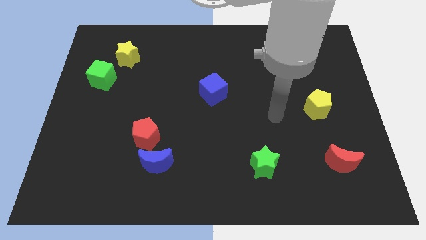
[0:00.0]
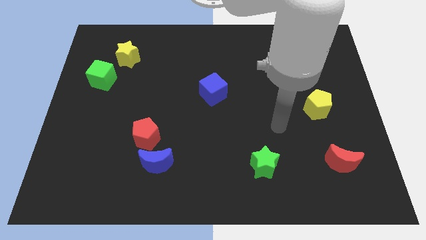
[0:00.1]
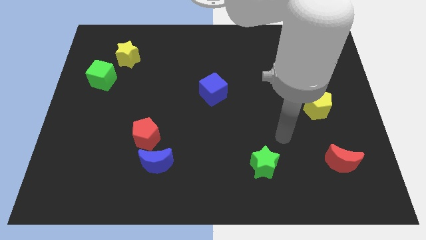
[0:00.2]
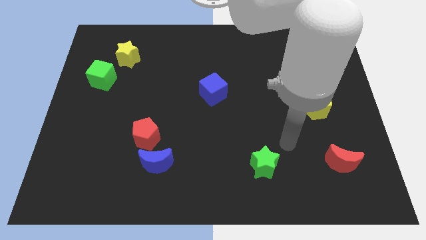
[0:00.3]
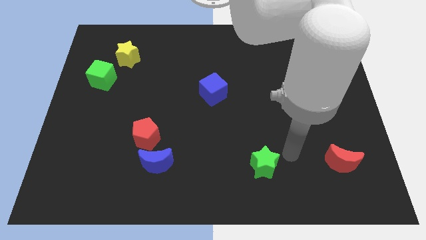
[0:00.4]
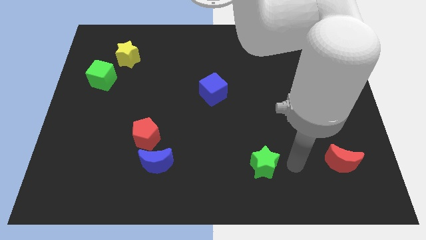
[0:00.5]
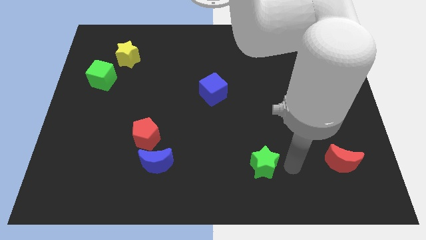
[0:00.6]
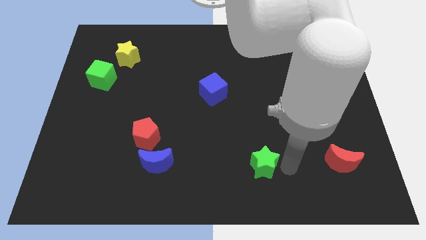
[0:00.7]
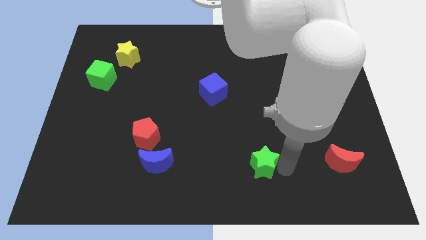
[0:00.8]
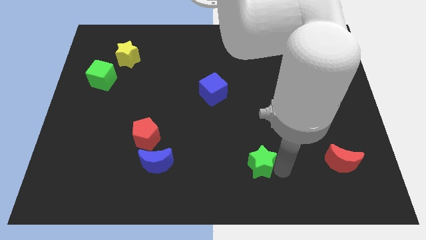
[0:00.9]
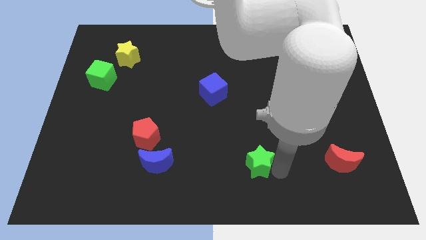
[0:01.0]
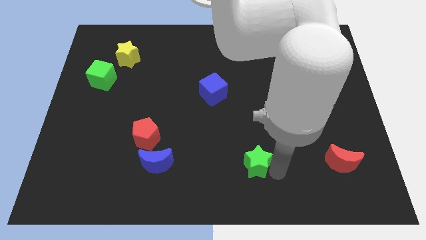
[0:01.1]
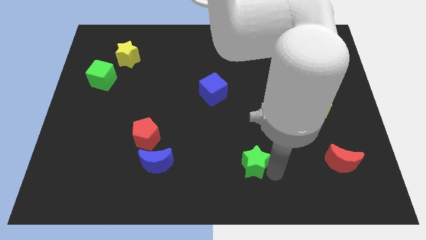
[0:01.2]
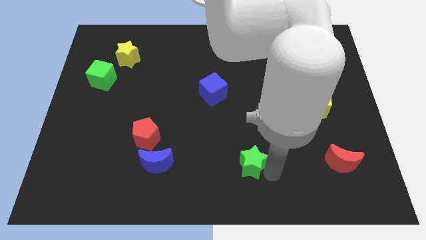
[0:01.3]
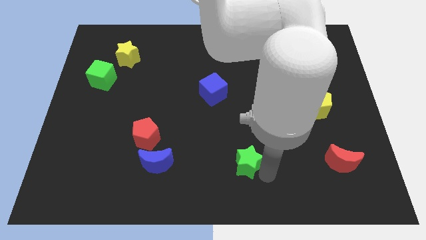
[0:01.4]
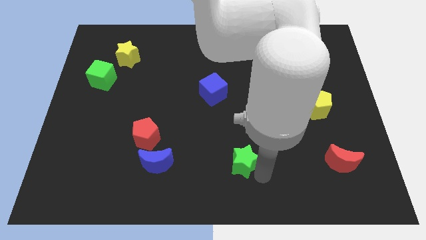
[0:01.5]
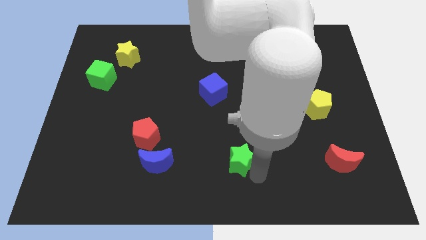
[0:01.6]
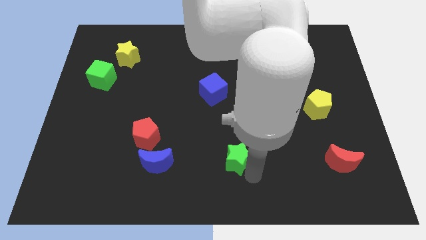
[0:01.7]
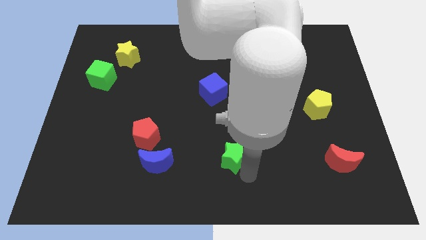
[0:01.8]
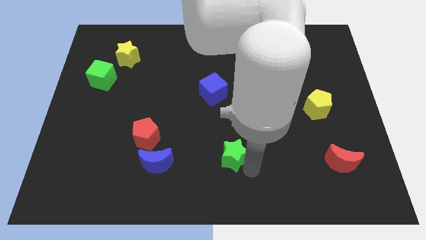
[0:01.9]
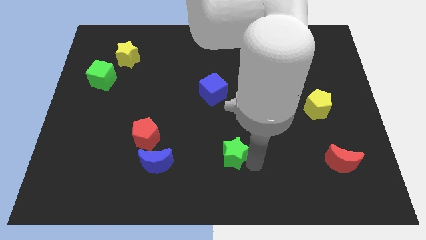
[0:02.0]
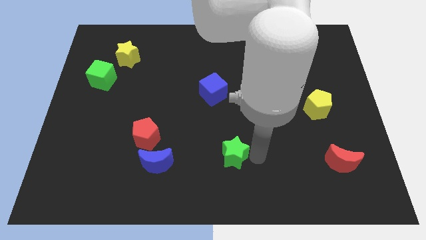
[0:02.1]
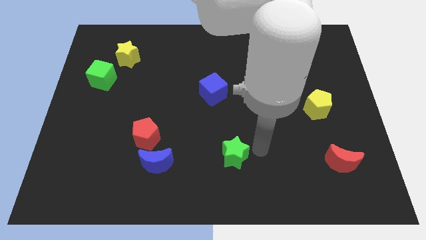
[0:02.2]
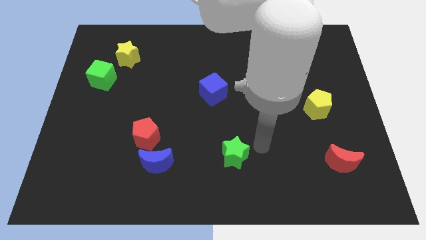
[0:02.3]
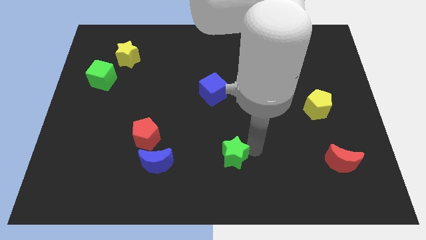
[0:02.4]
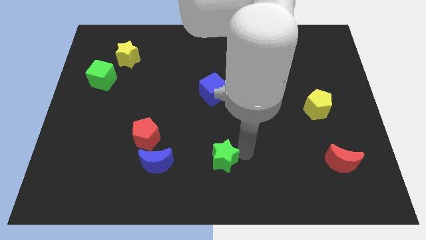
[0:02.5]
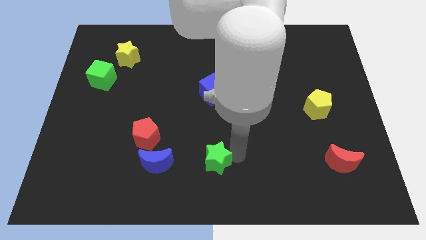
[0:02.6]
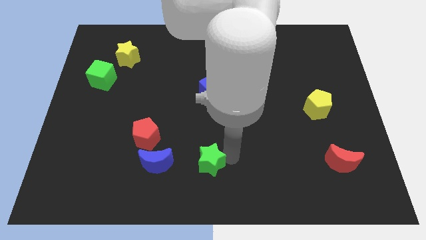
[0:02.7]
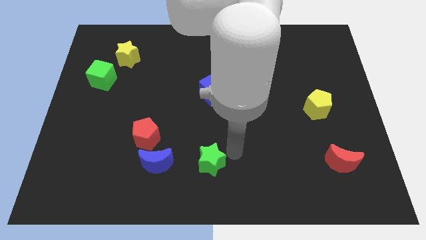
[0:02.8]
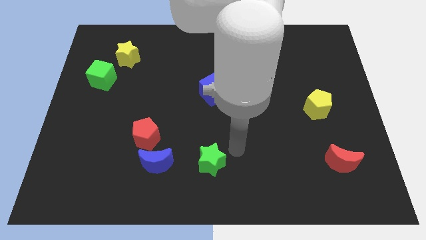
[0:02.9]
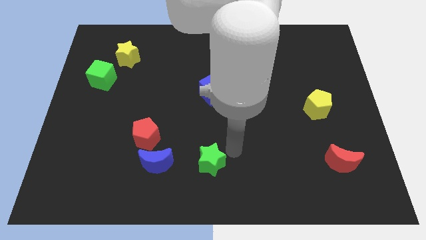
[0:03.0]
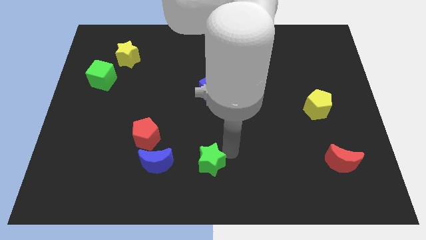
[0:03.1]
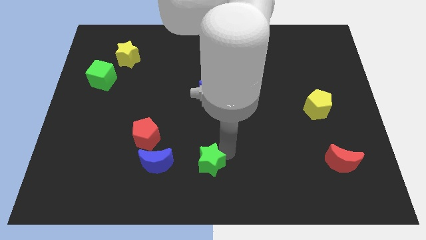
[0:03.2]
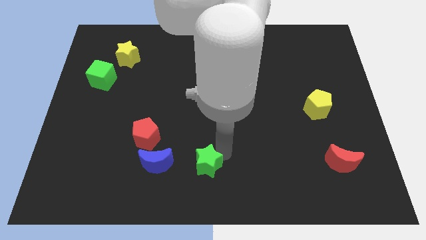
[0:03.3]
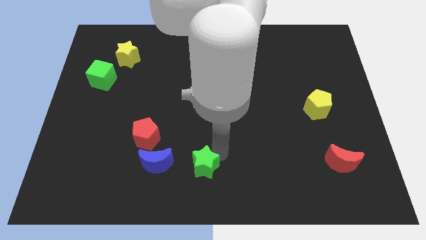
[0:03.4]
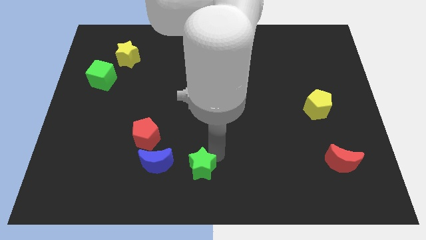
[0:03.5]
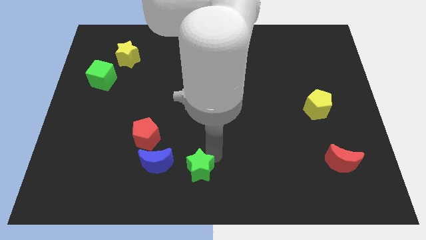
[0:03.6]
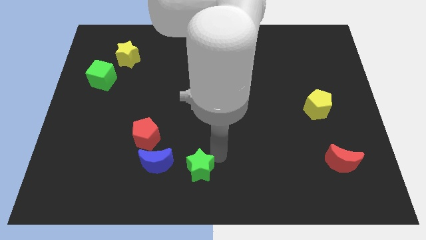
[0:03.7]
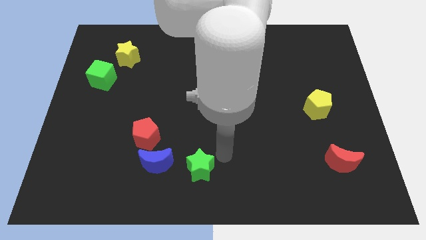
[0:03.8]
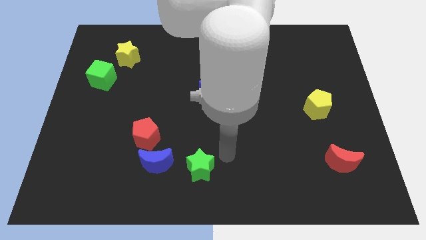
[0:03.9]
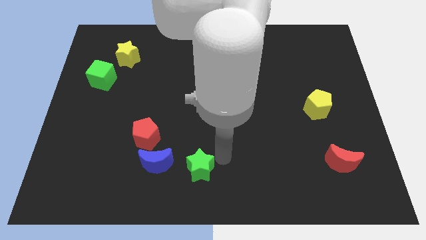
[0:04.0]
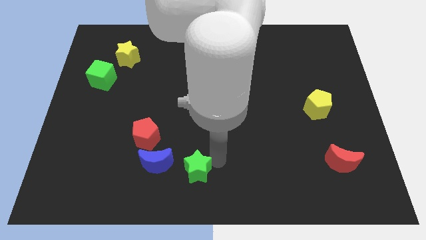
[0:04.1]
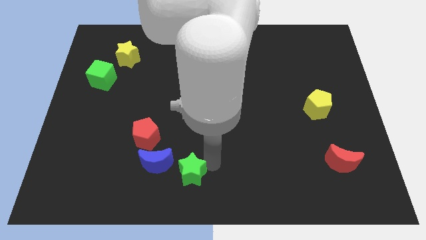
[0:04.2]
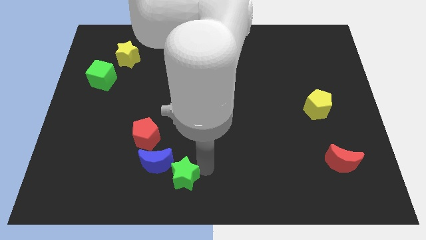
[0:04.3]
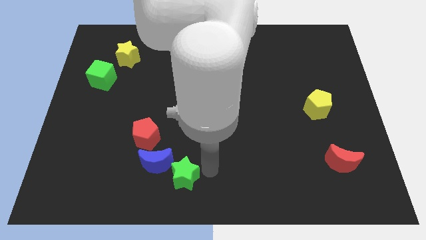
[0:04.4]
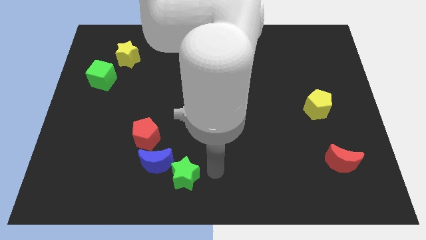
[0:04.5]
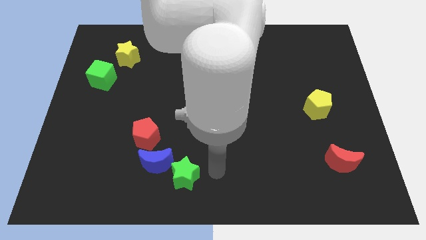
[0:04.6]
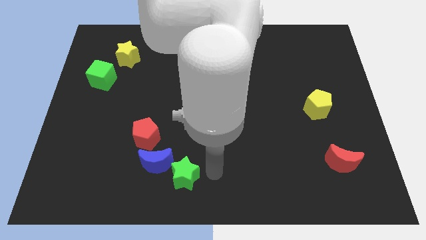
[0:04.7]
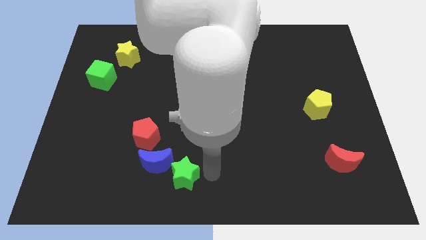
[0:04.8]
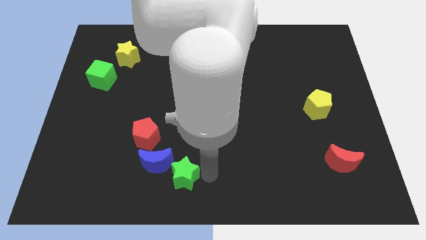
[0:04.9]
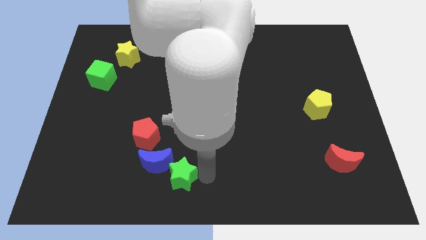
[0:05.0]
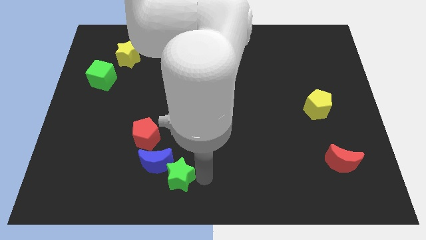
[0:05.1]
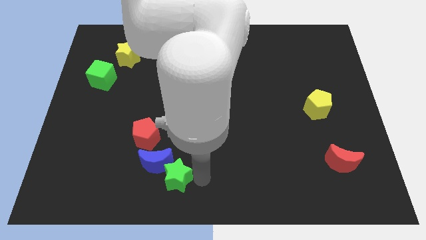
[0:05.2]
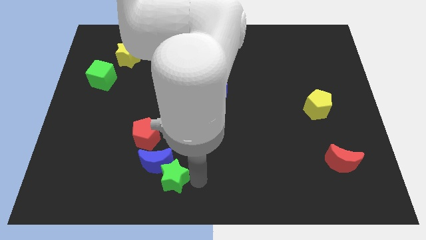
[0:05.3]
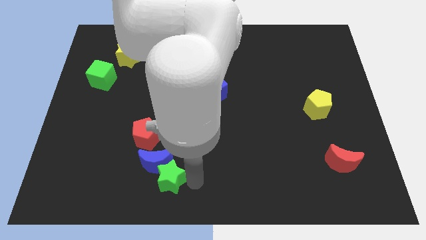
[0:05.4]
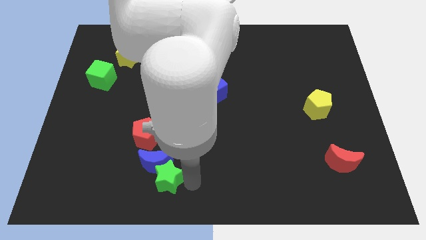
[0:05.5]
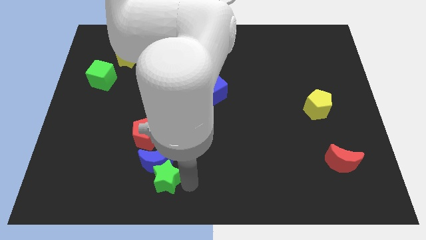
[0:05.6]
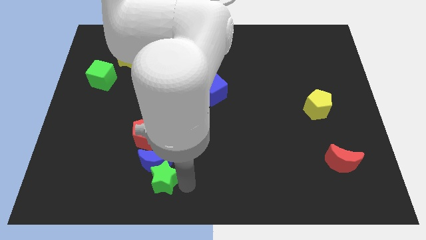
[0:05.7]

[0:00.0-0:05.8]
slide the green star to the left

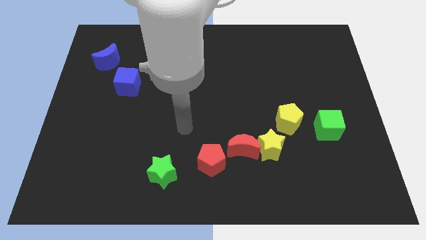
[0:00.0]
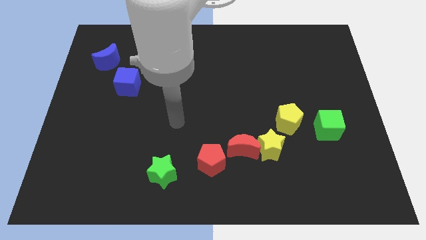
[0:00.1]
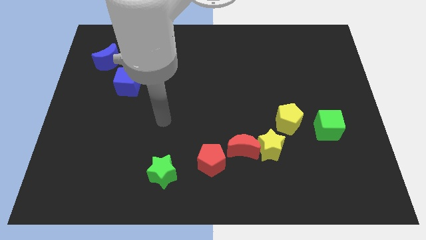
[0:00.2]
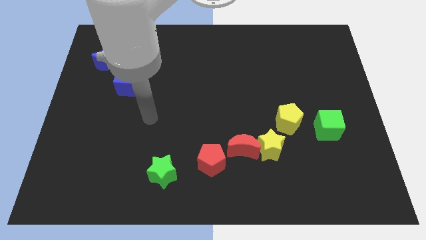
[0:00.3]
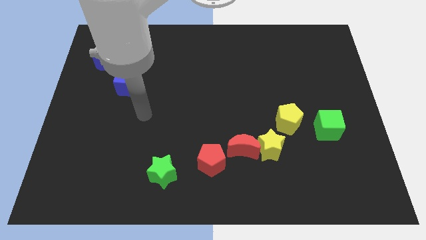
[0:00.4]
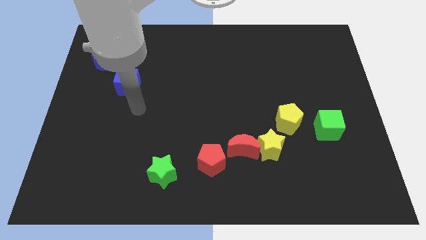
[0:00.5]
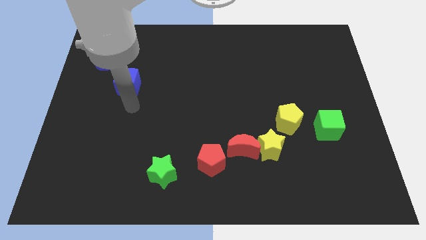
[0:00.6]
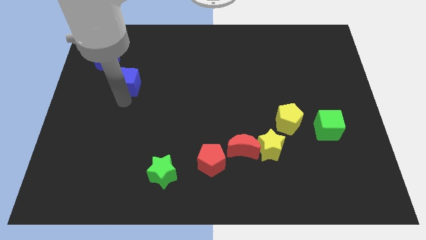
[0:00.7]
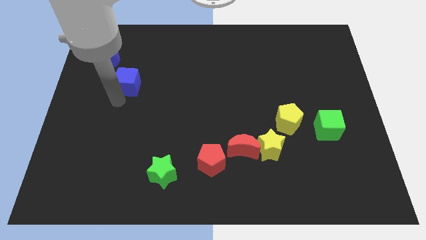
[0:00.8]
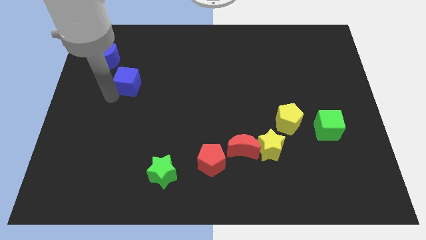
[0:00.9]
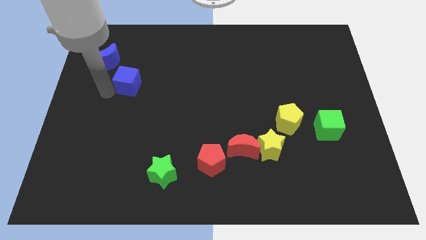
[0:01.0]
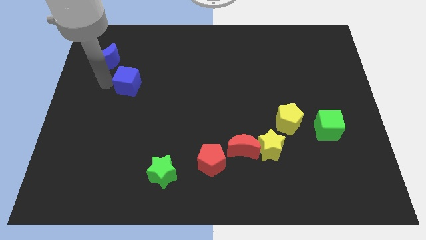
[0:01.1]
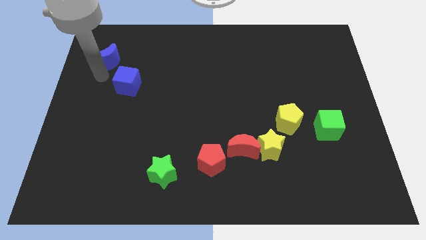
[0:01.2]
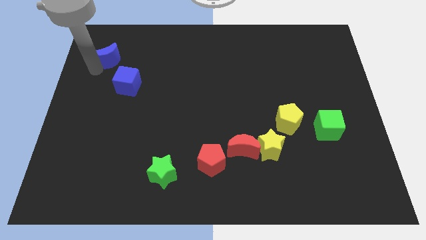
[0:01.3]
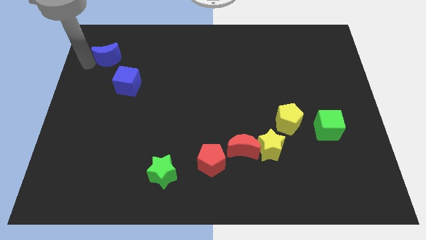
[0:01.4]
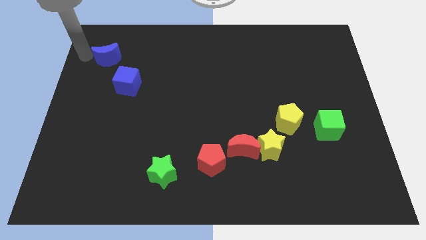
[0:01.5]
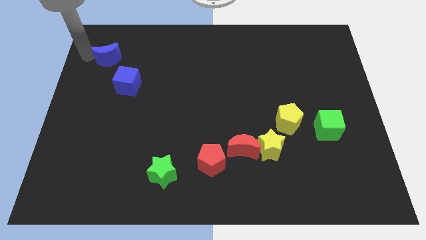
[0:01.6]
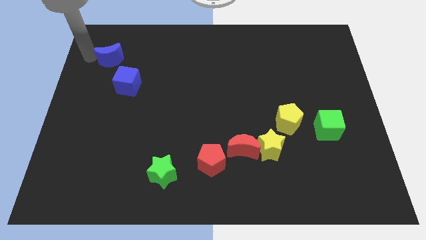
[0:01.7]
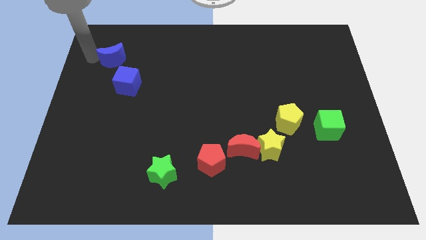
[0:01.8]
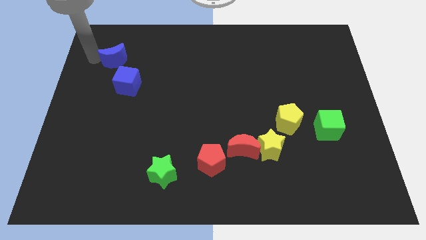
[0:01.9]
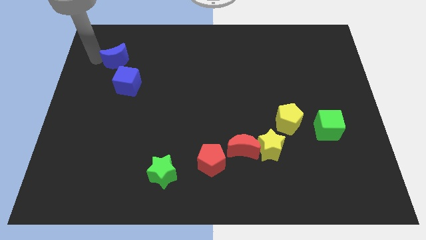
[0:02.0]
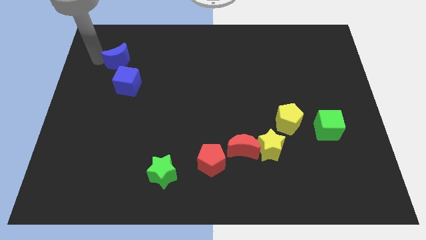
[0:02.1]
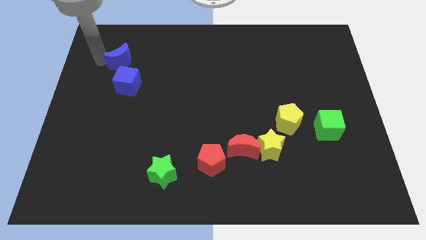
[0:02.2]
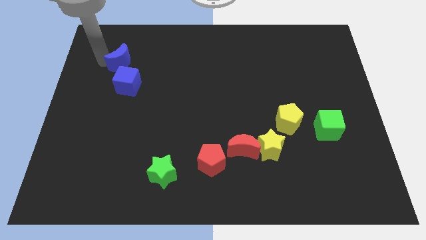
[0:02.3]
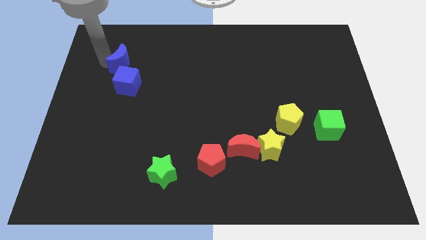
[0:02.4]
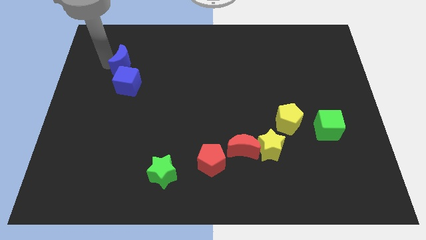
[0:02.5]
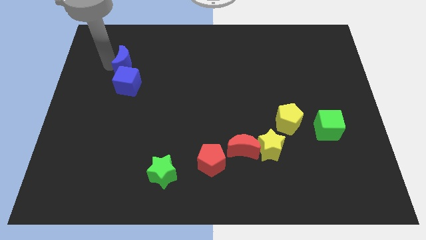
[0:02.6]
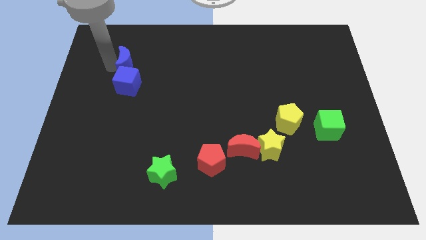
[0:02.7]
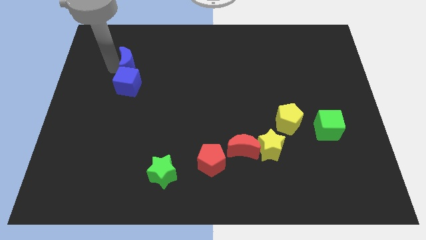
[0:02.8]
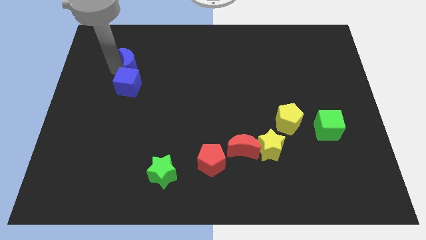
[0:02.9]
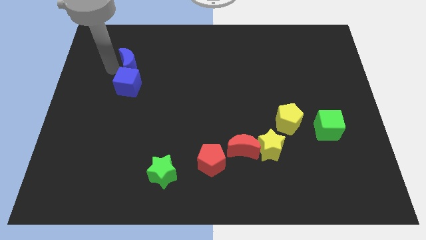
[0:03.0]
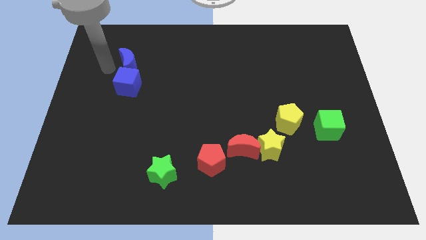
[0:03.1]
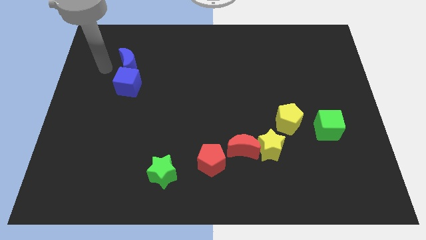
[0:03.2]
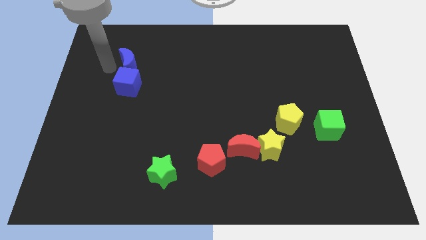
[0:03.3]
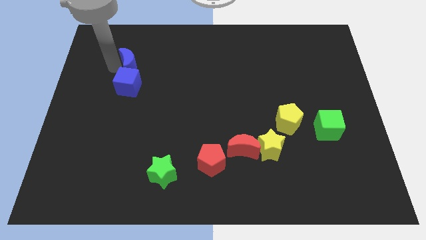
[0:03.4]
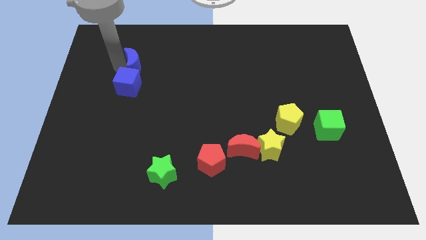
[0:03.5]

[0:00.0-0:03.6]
push the blue moon right a little
